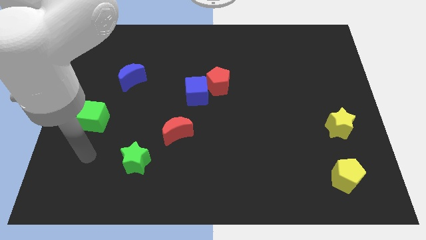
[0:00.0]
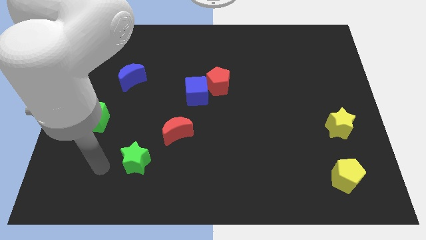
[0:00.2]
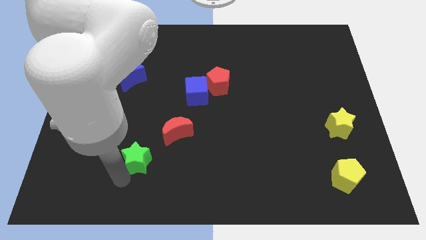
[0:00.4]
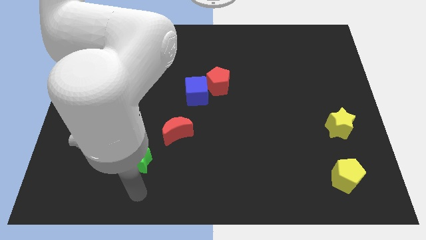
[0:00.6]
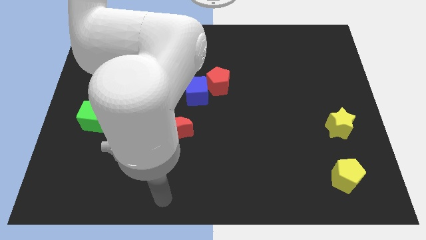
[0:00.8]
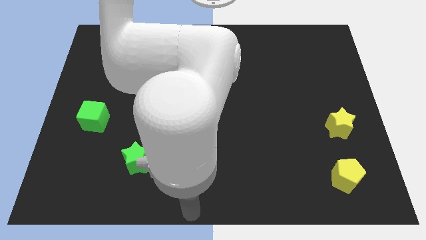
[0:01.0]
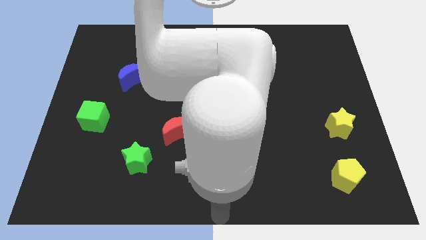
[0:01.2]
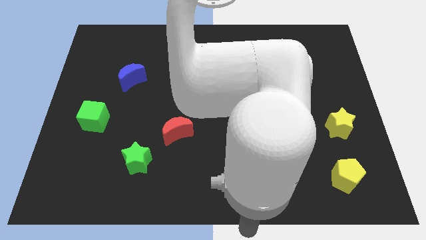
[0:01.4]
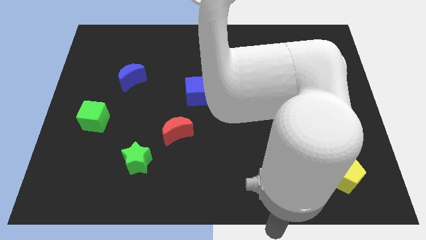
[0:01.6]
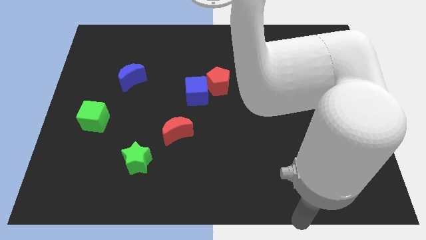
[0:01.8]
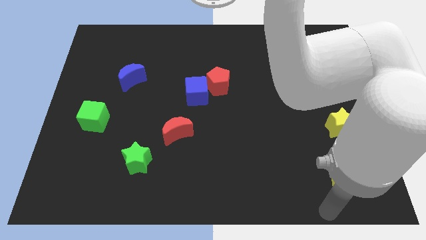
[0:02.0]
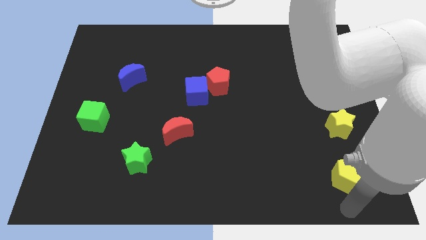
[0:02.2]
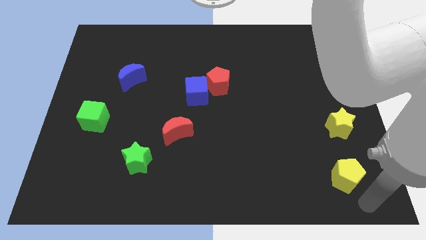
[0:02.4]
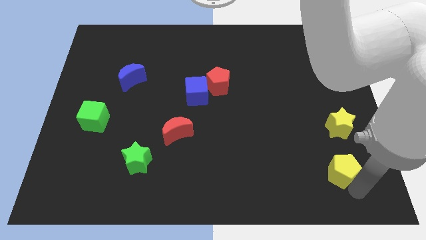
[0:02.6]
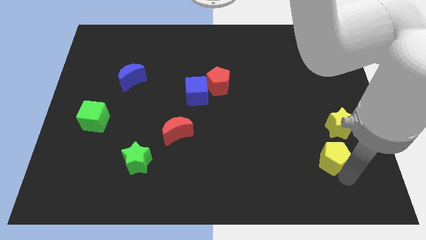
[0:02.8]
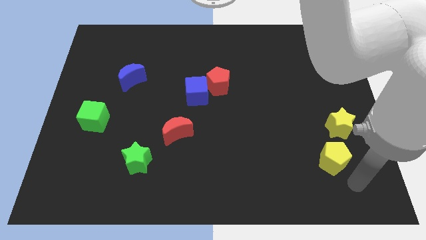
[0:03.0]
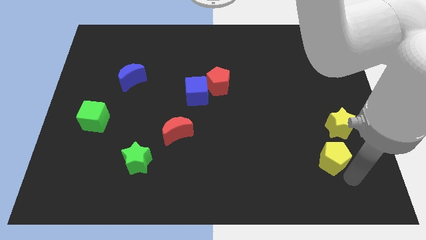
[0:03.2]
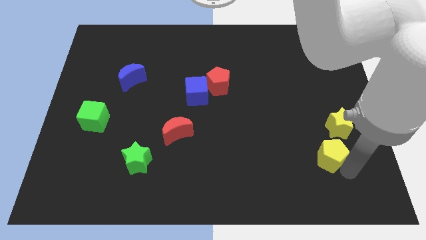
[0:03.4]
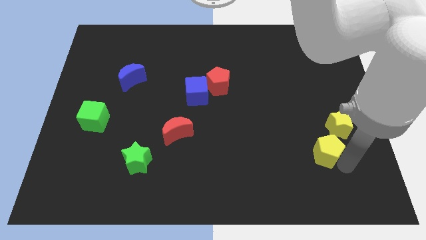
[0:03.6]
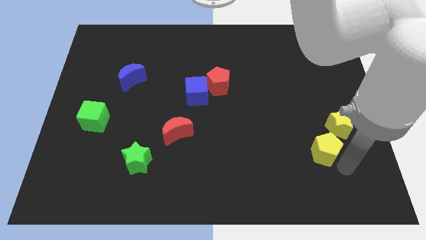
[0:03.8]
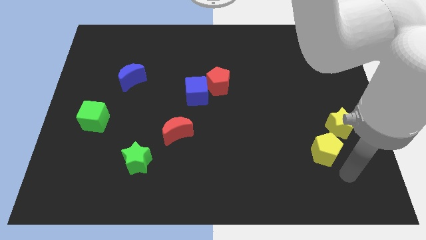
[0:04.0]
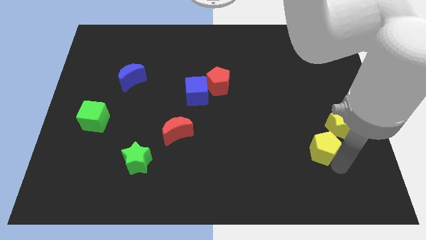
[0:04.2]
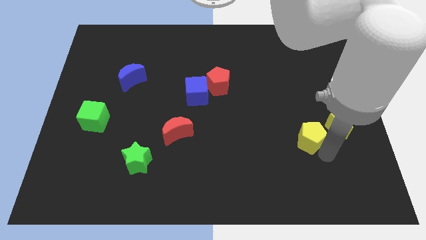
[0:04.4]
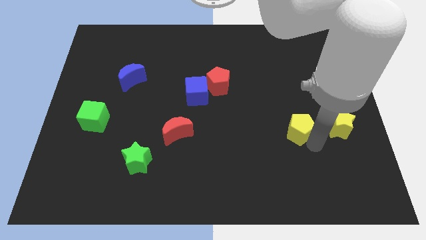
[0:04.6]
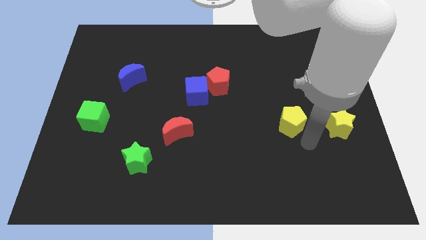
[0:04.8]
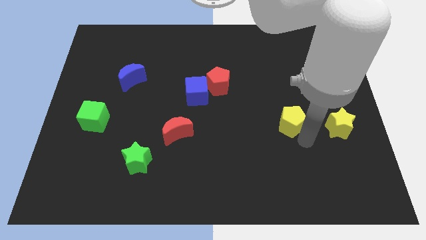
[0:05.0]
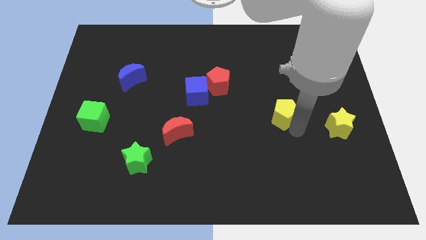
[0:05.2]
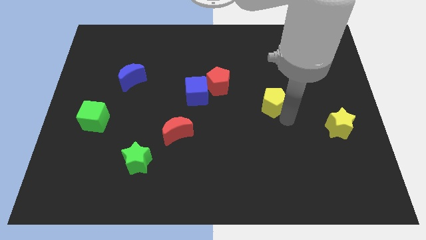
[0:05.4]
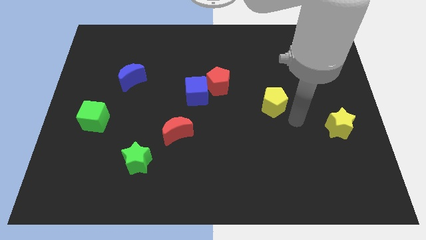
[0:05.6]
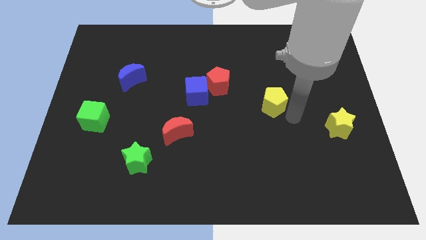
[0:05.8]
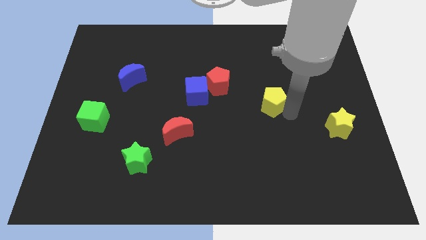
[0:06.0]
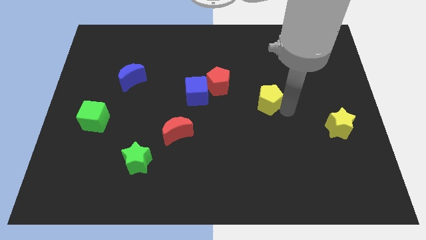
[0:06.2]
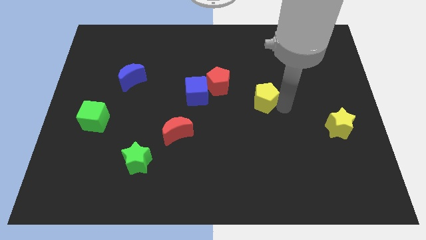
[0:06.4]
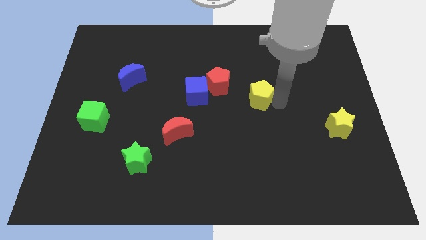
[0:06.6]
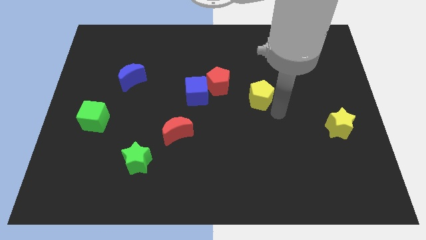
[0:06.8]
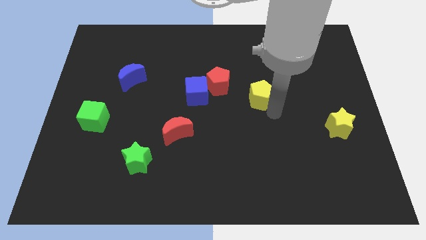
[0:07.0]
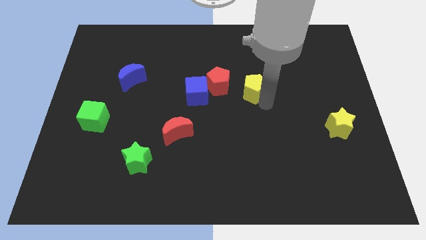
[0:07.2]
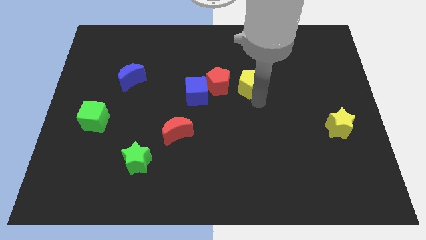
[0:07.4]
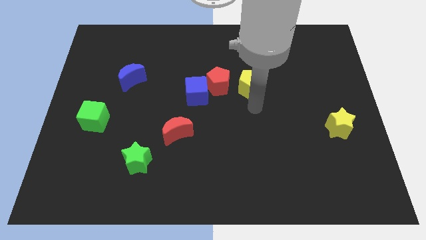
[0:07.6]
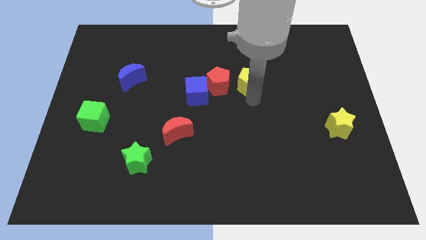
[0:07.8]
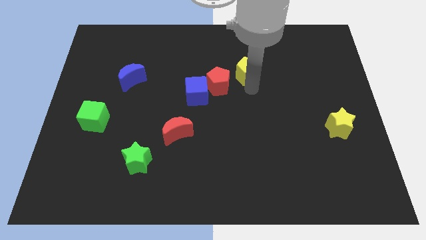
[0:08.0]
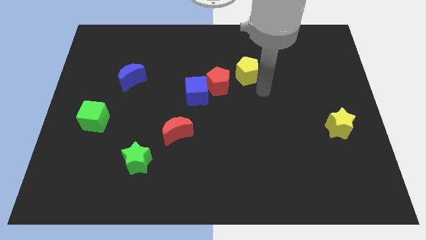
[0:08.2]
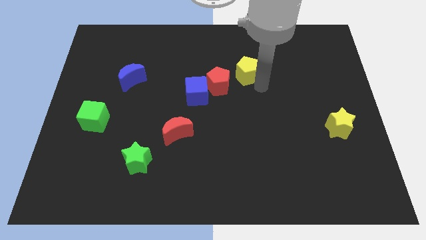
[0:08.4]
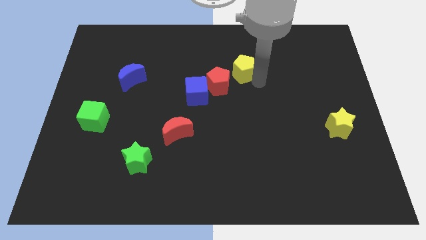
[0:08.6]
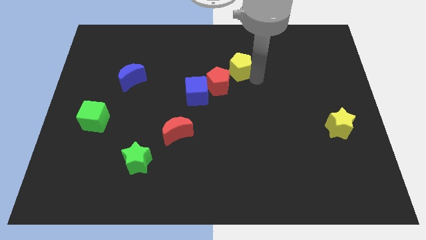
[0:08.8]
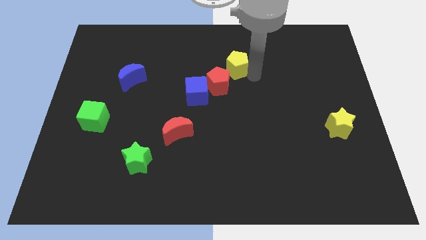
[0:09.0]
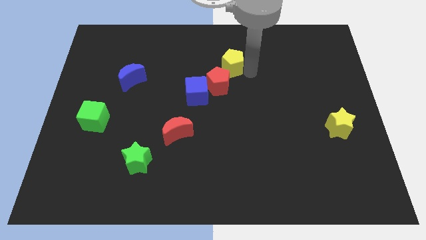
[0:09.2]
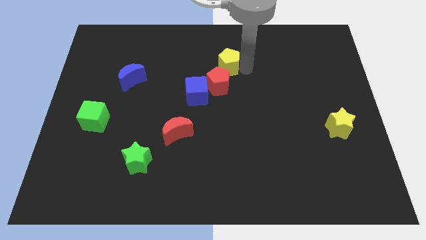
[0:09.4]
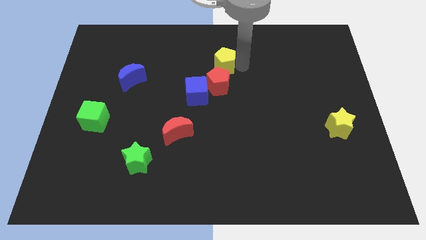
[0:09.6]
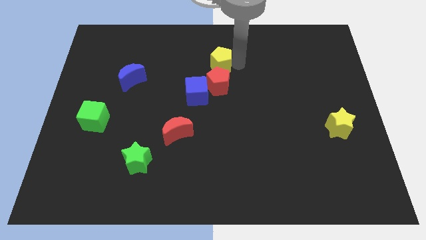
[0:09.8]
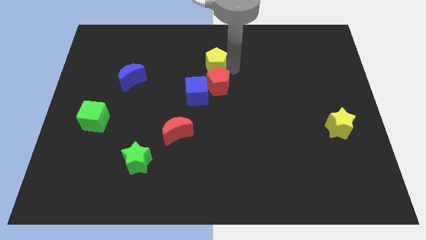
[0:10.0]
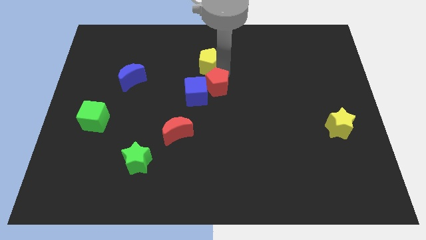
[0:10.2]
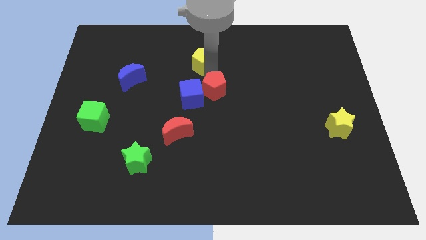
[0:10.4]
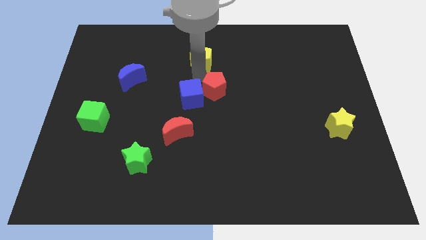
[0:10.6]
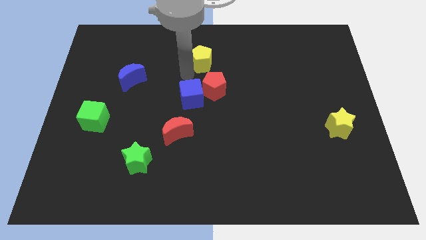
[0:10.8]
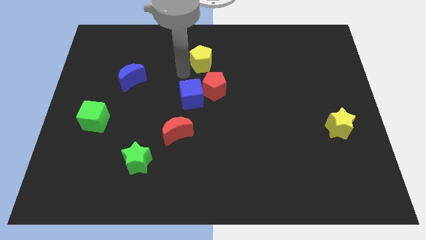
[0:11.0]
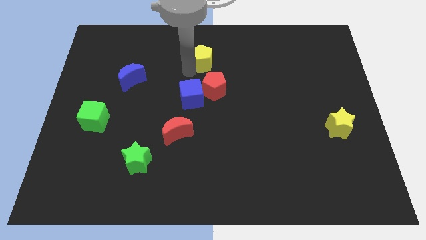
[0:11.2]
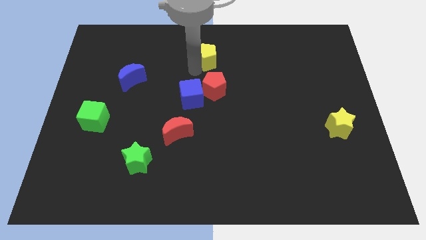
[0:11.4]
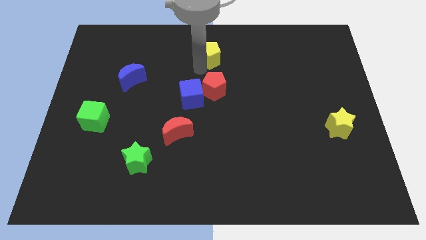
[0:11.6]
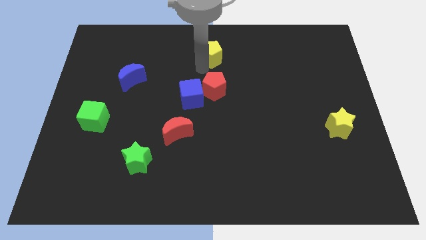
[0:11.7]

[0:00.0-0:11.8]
slide the yellow pentagon to the towards your base
